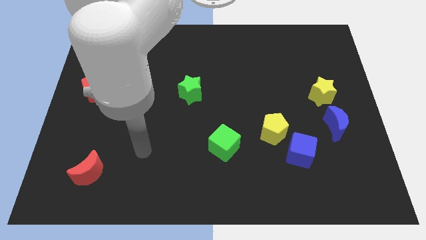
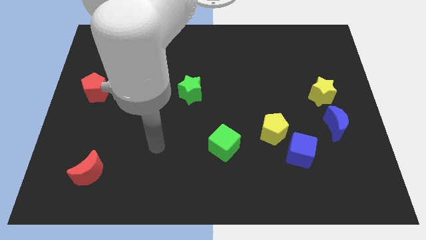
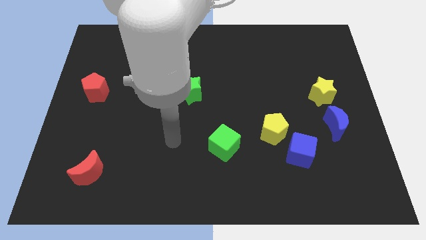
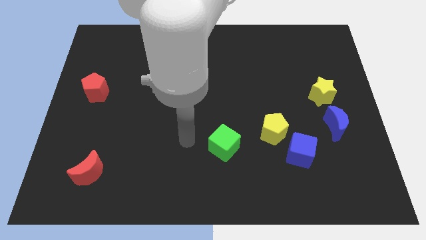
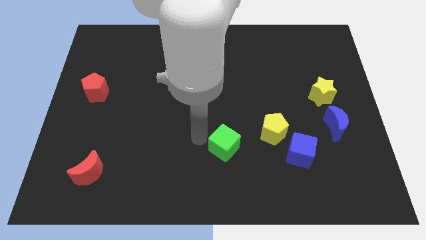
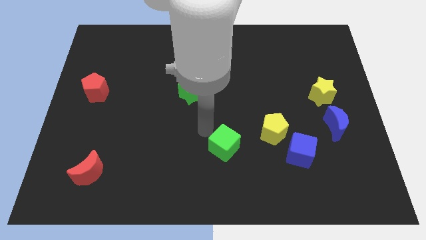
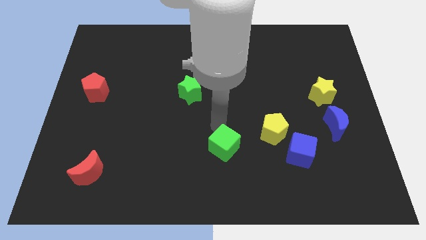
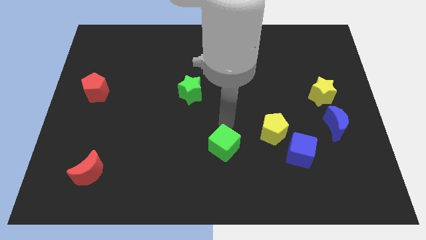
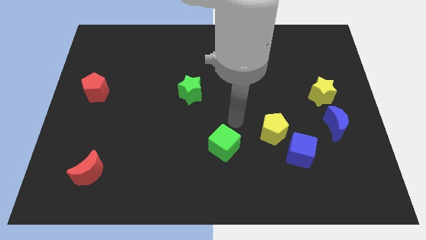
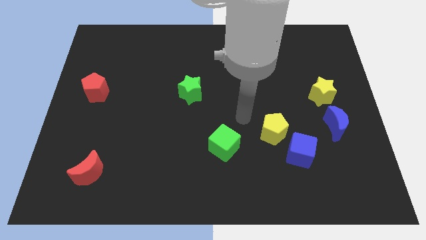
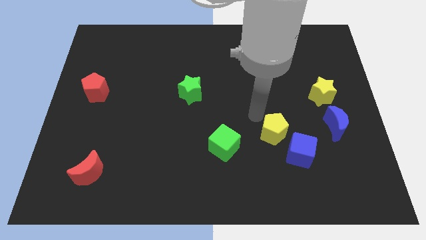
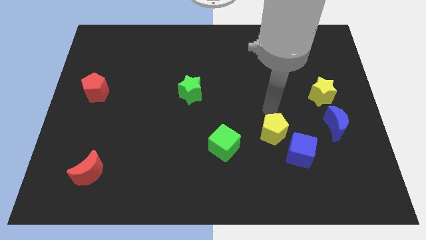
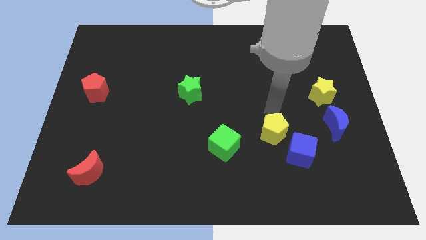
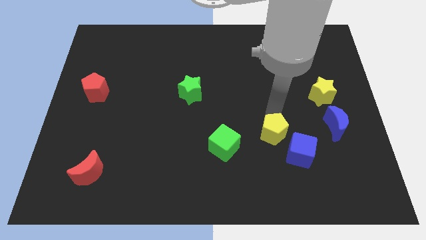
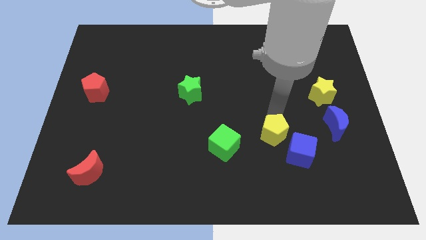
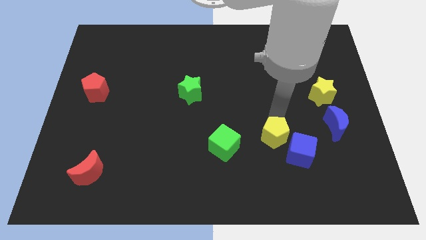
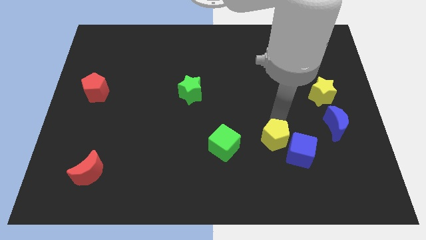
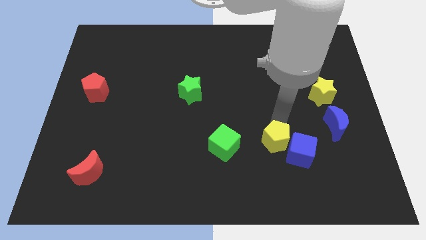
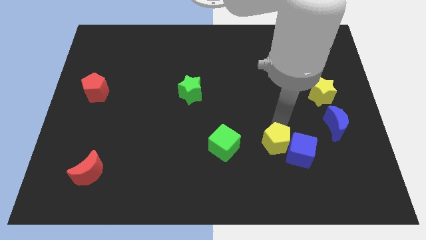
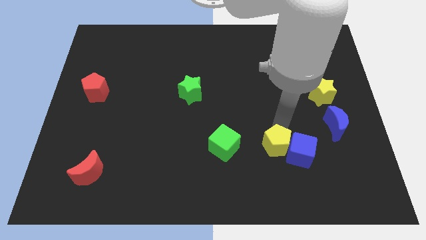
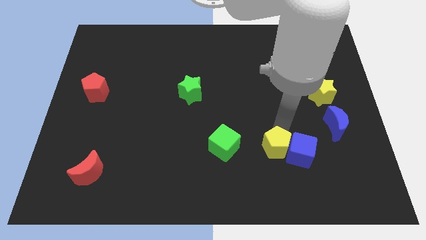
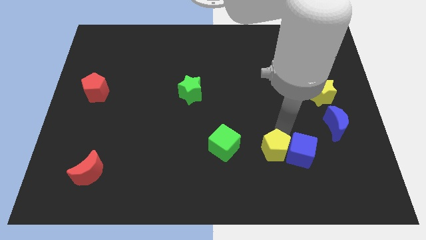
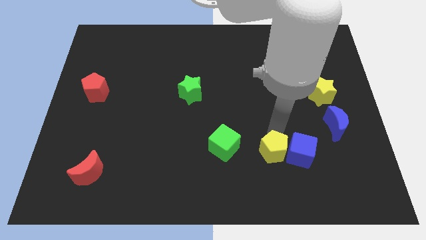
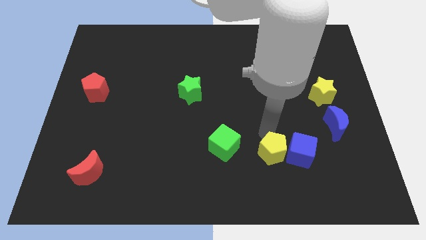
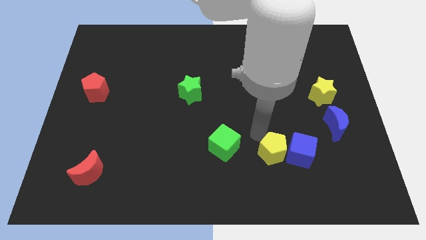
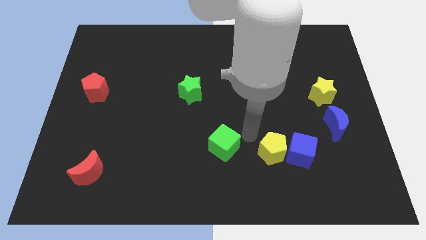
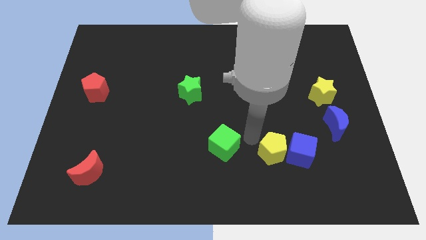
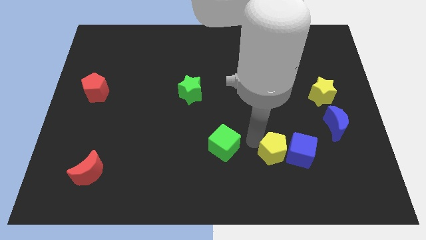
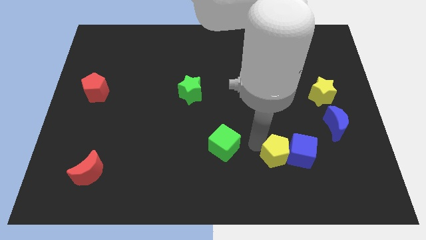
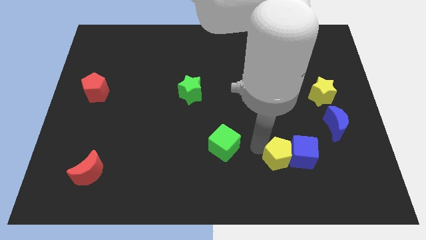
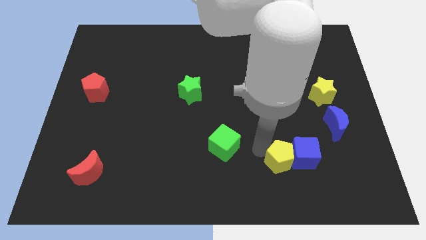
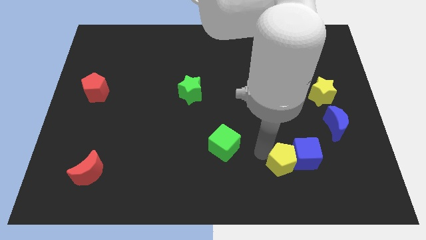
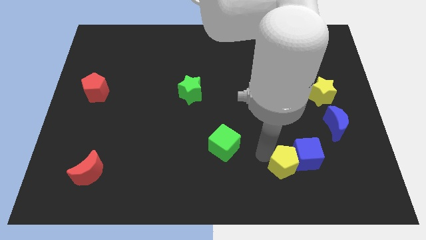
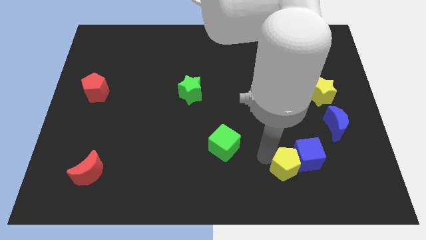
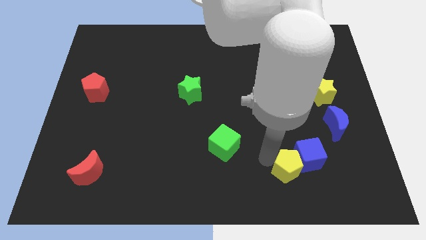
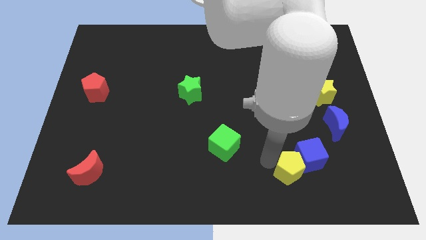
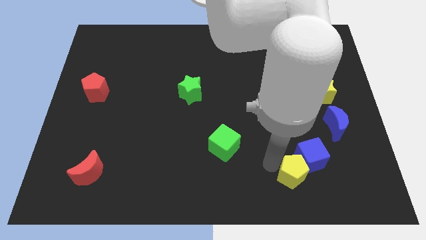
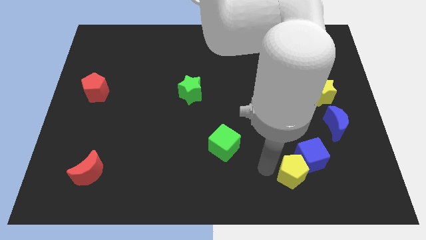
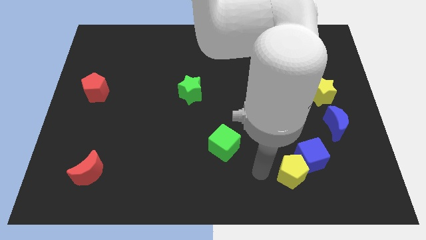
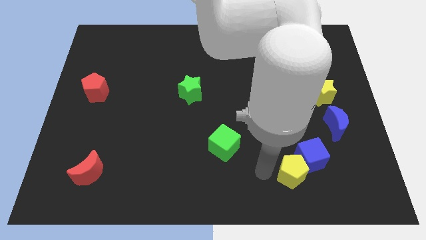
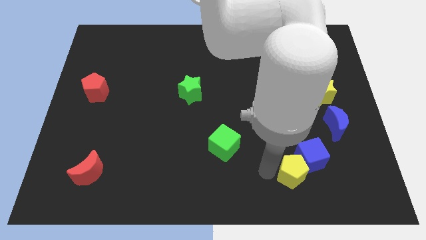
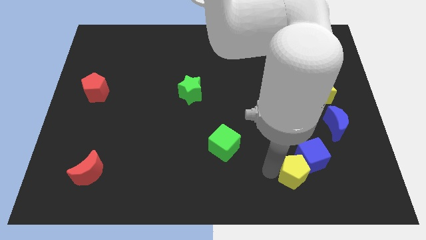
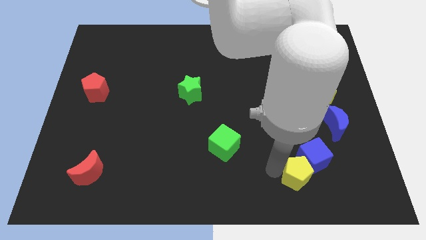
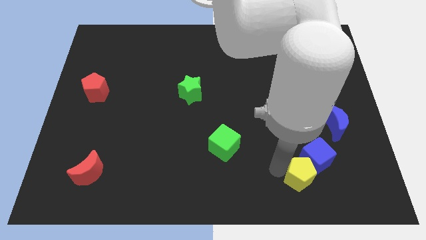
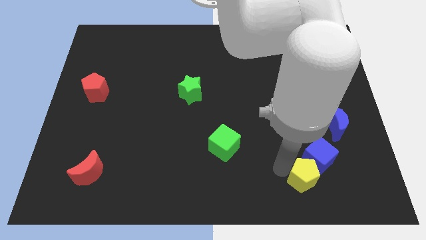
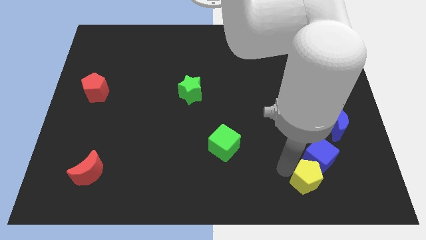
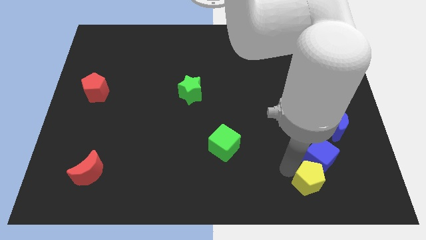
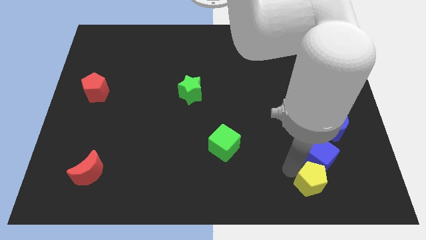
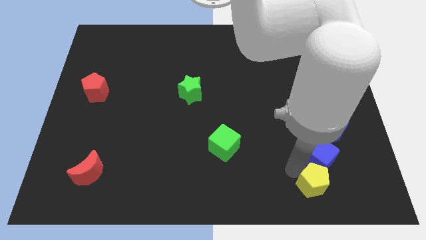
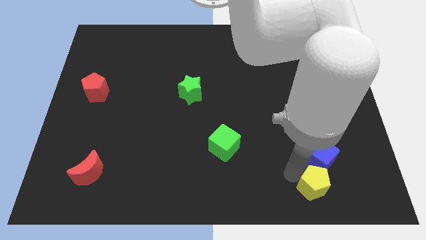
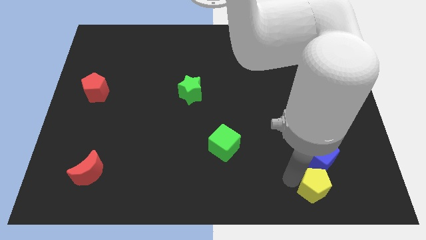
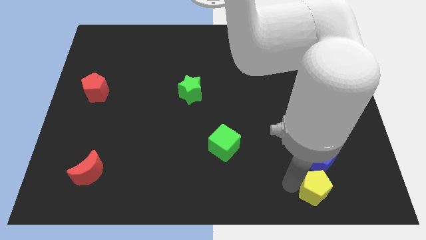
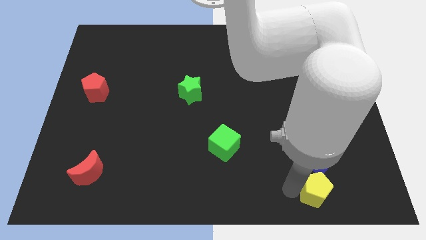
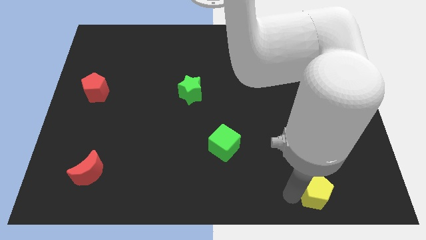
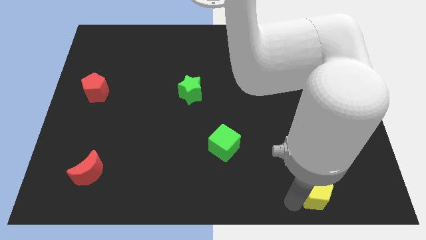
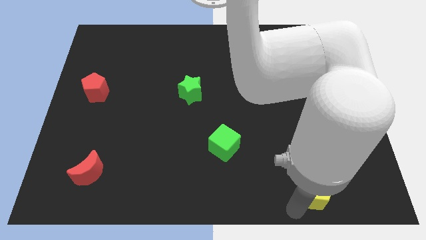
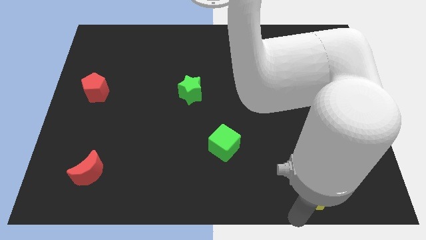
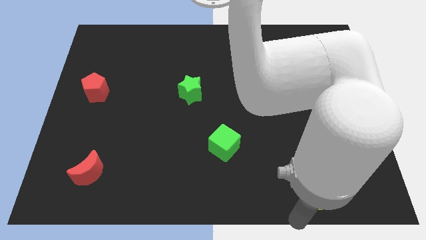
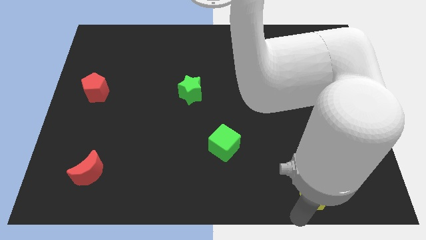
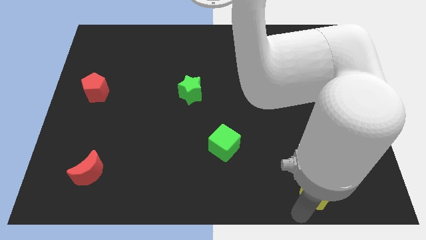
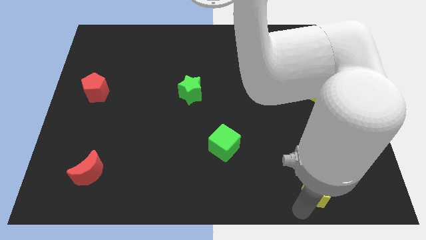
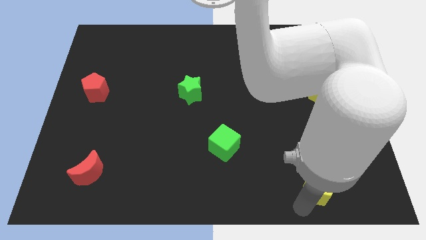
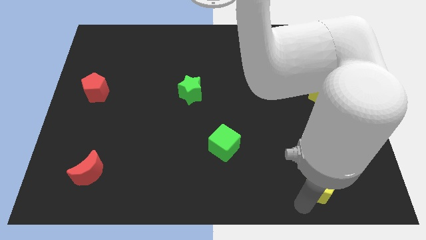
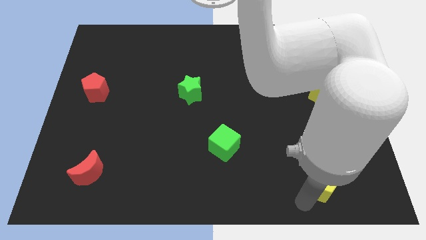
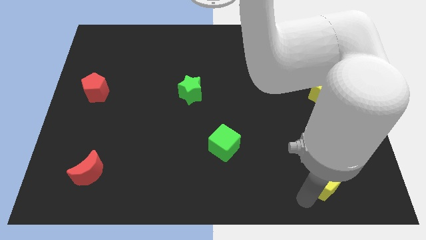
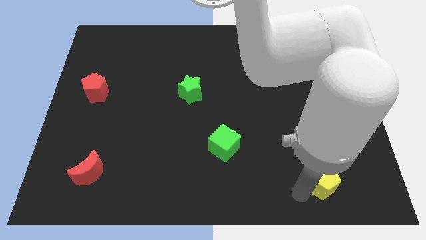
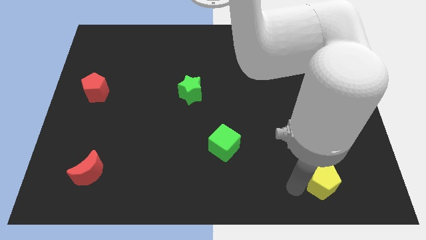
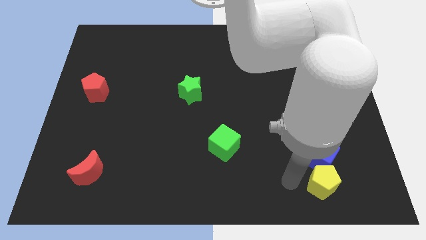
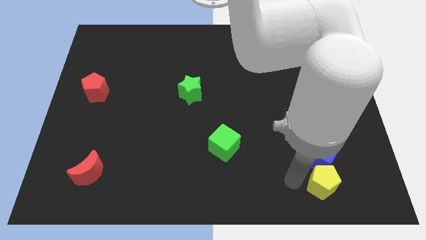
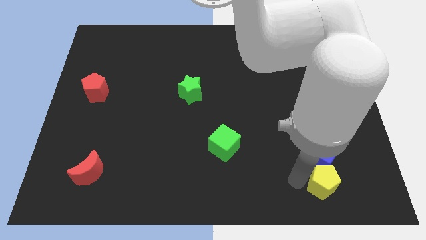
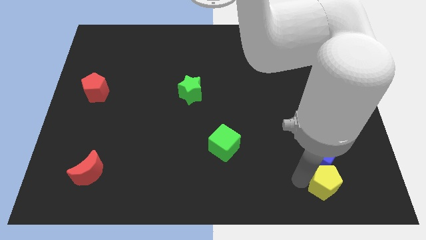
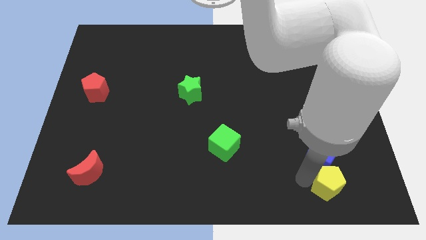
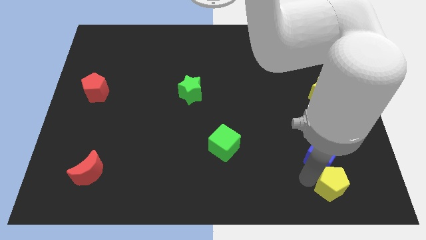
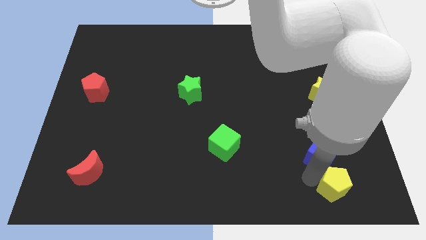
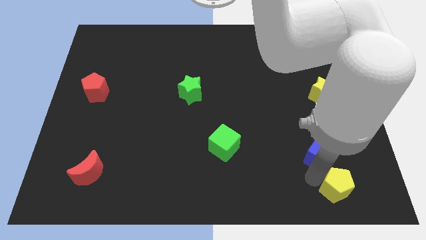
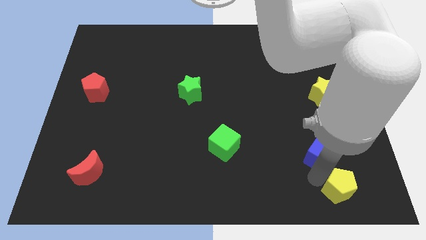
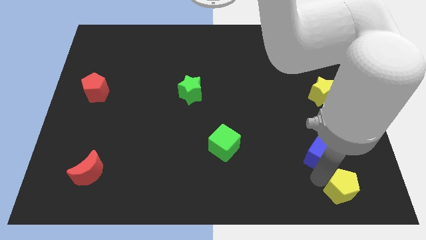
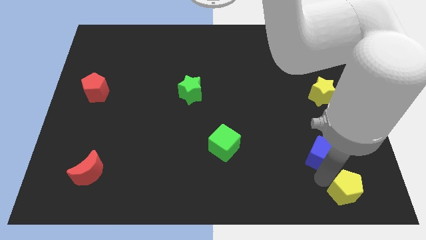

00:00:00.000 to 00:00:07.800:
put the yellow pentagon to the bottom right corner
